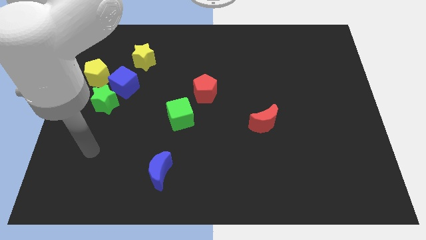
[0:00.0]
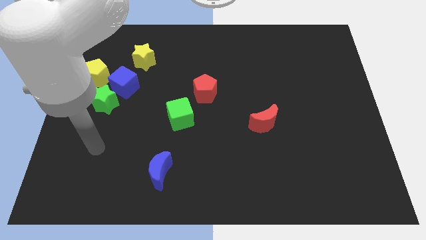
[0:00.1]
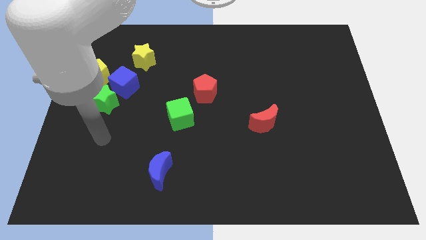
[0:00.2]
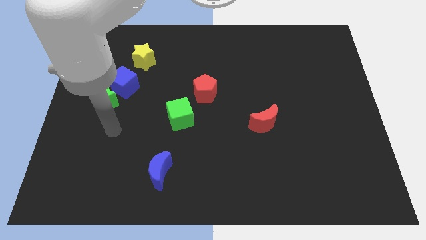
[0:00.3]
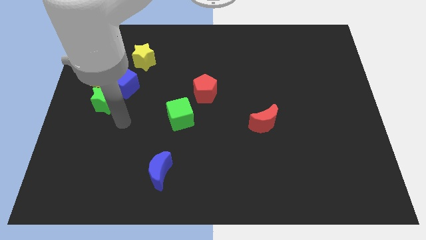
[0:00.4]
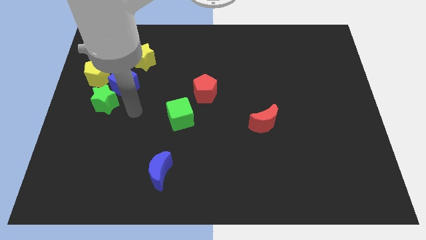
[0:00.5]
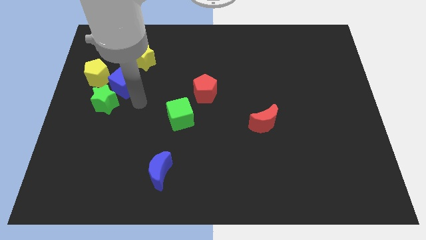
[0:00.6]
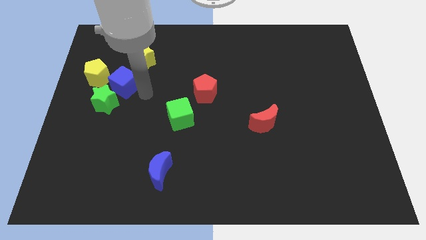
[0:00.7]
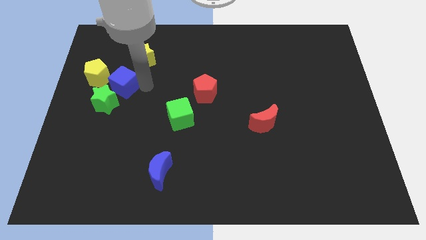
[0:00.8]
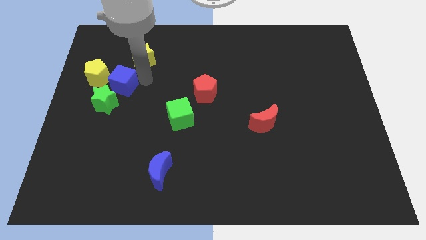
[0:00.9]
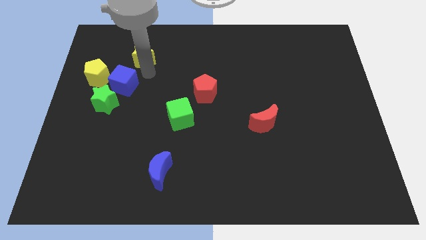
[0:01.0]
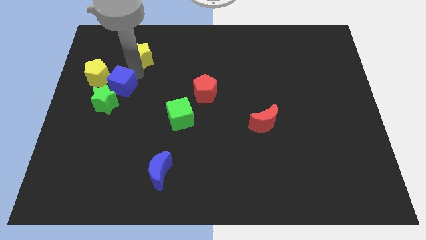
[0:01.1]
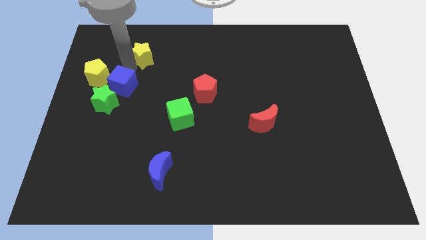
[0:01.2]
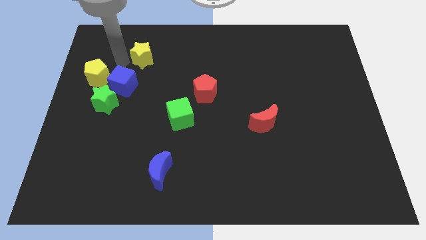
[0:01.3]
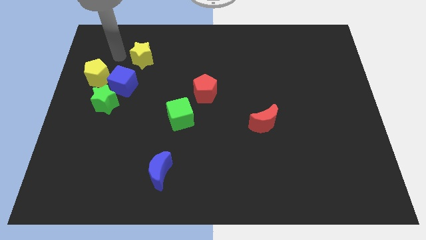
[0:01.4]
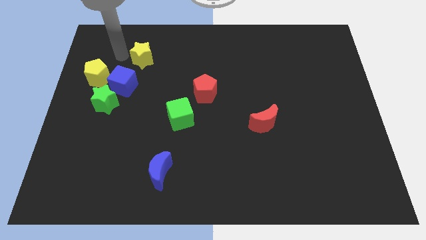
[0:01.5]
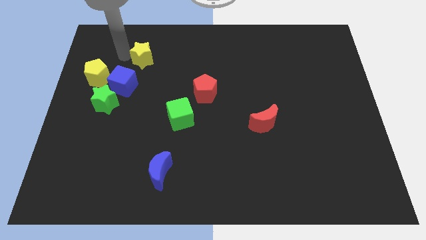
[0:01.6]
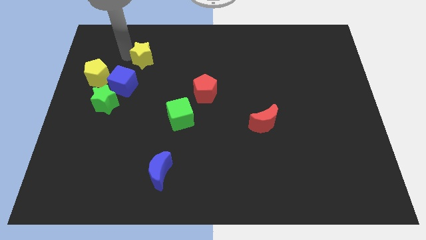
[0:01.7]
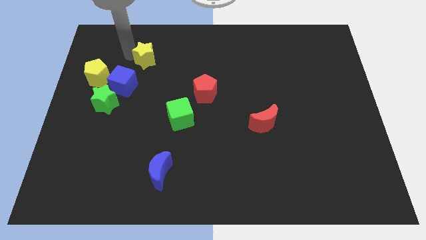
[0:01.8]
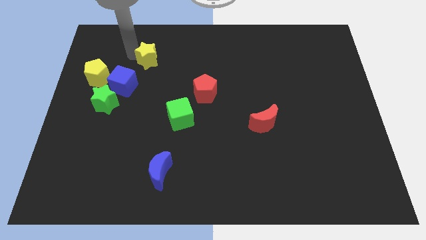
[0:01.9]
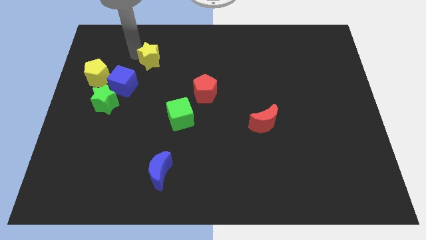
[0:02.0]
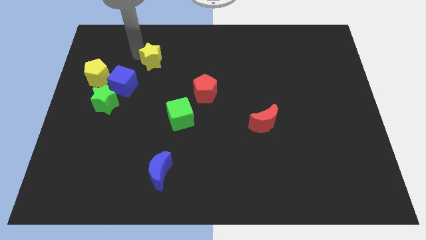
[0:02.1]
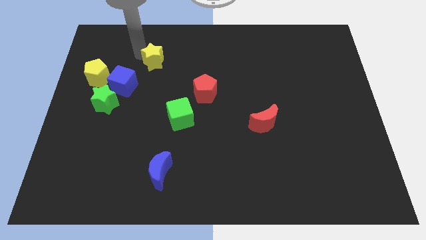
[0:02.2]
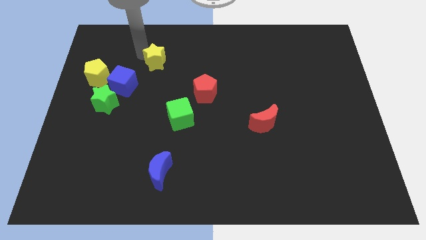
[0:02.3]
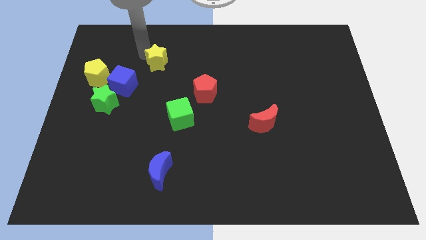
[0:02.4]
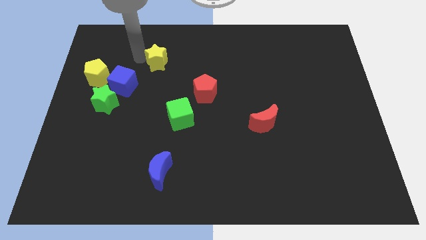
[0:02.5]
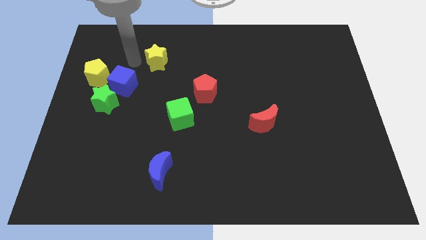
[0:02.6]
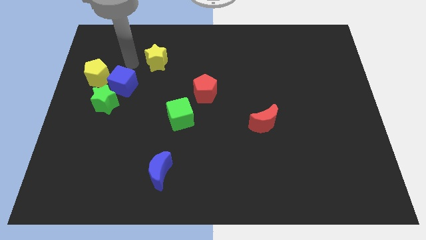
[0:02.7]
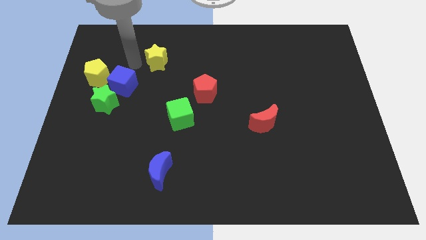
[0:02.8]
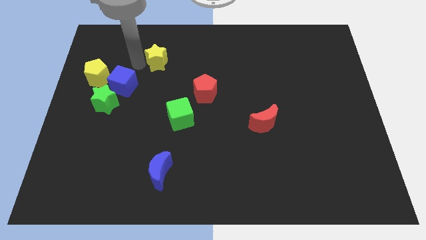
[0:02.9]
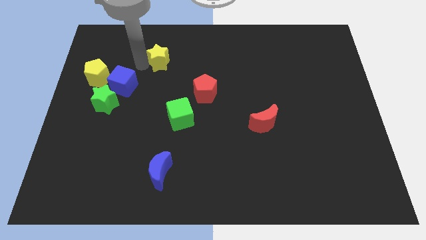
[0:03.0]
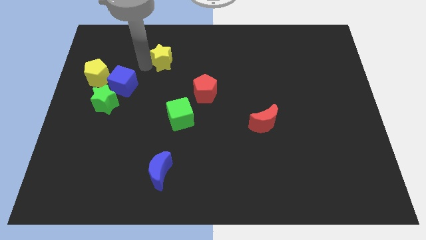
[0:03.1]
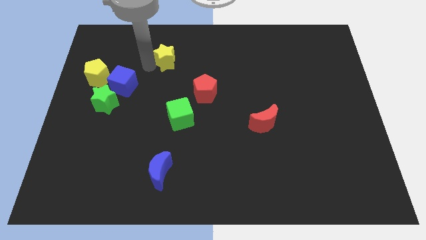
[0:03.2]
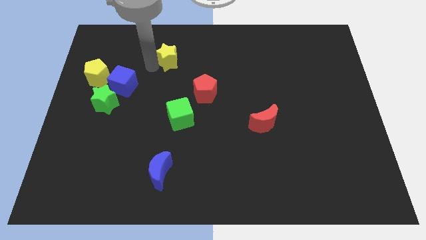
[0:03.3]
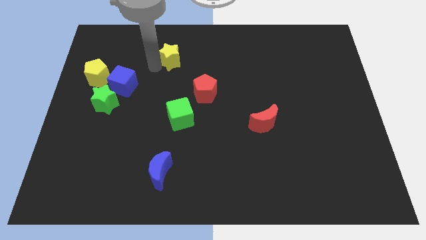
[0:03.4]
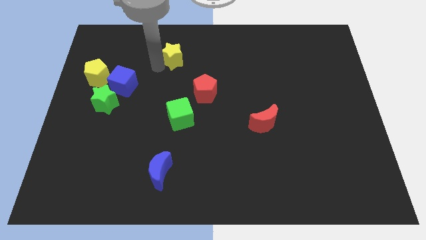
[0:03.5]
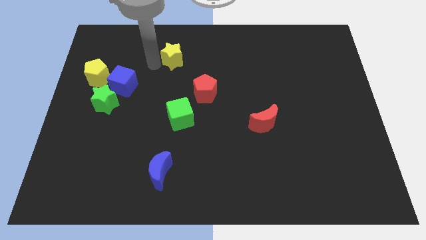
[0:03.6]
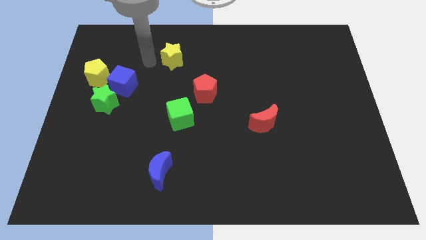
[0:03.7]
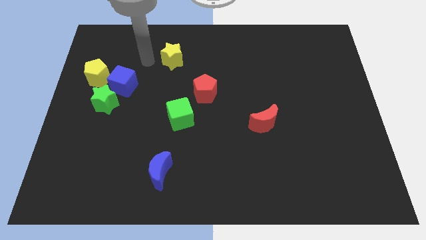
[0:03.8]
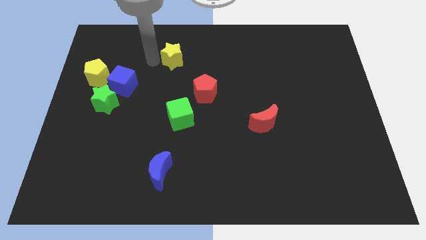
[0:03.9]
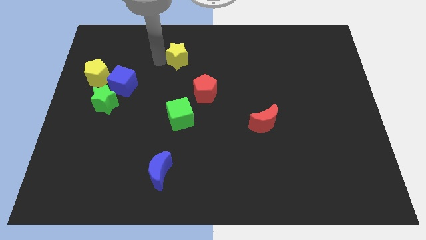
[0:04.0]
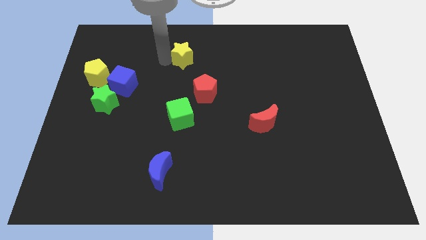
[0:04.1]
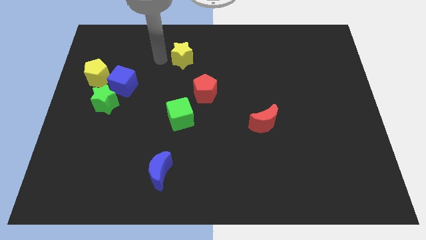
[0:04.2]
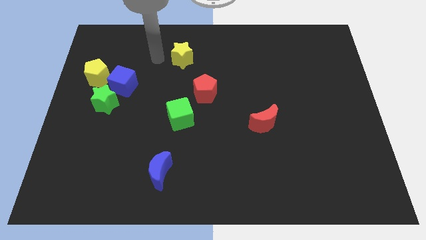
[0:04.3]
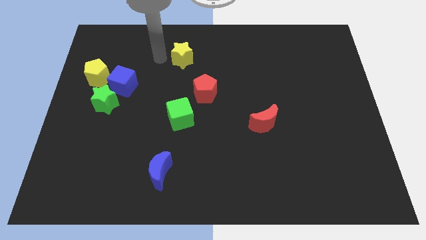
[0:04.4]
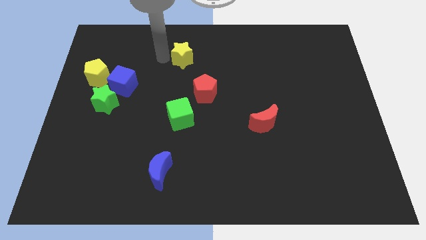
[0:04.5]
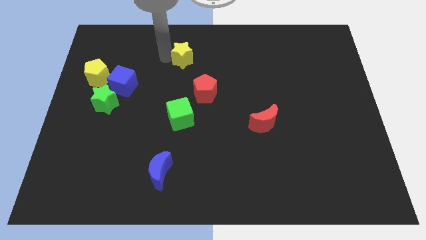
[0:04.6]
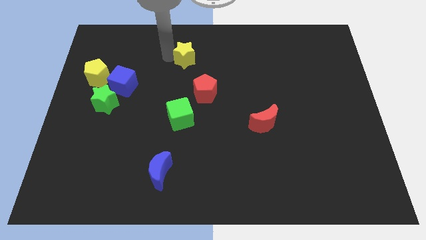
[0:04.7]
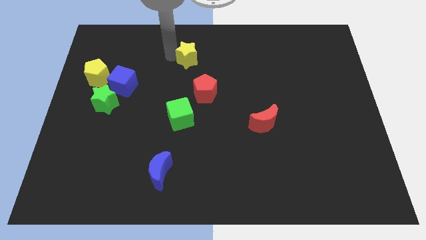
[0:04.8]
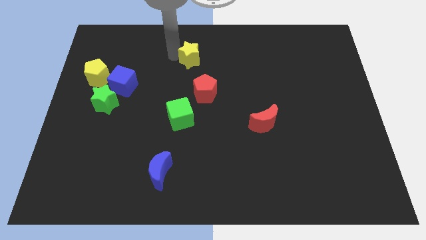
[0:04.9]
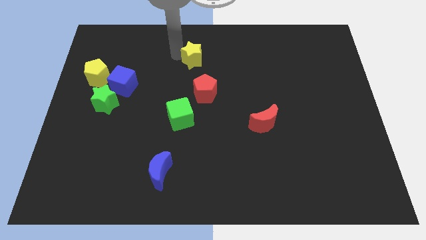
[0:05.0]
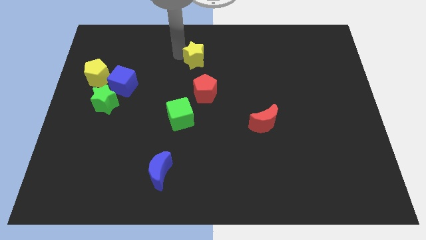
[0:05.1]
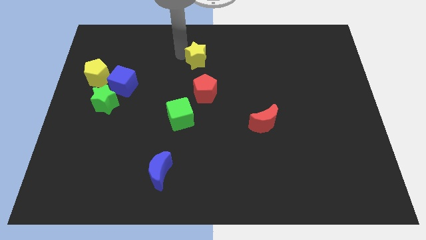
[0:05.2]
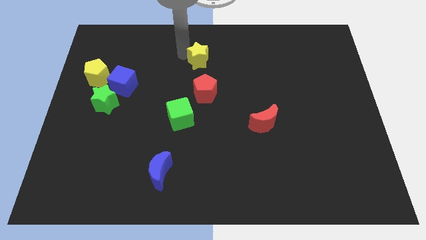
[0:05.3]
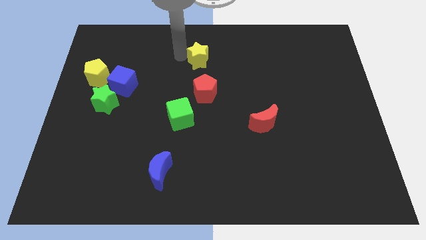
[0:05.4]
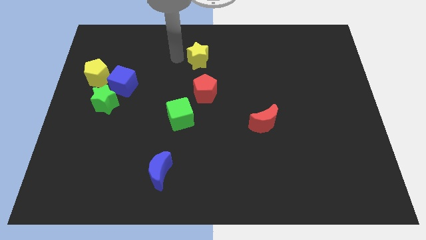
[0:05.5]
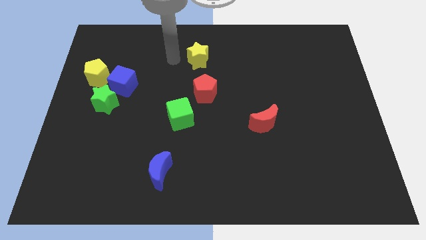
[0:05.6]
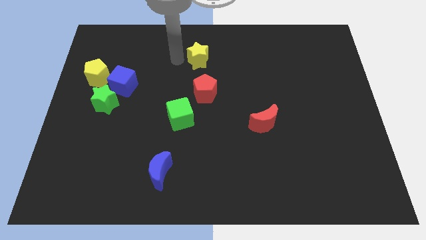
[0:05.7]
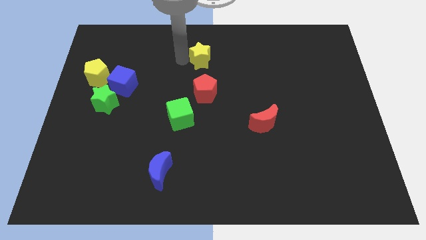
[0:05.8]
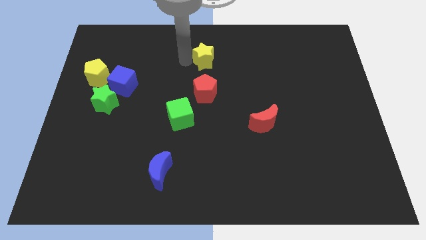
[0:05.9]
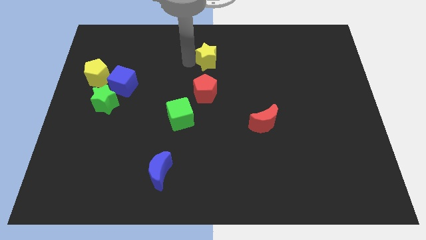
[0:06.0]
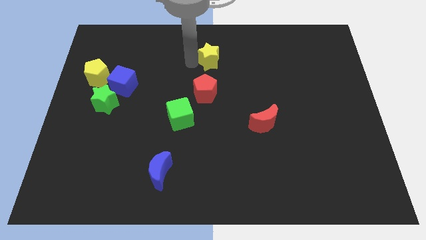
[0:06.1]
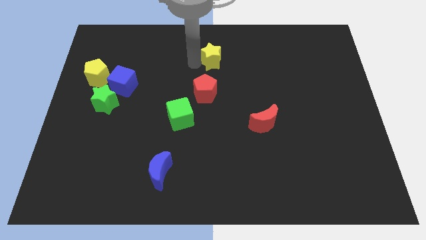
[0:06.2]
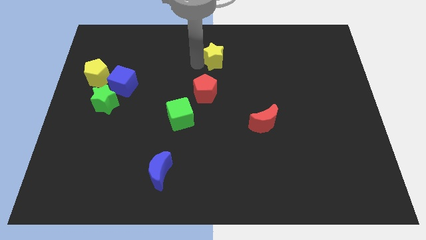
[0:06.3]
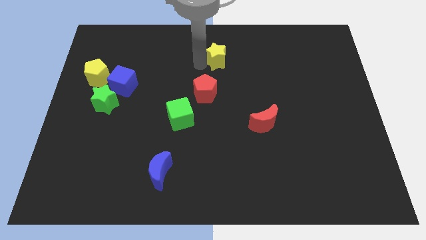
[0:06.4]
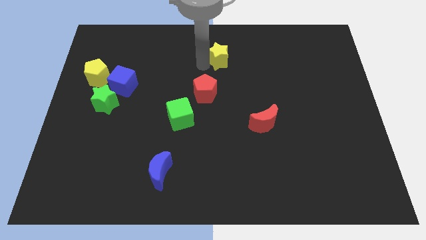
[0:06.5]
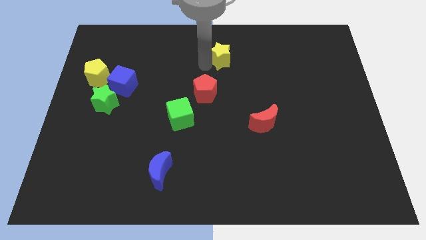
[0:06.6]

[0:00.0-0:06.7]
move the yellow star right

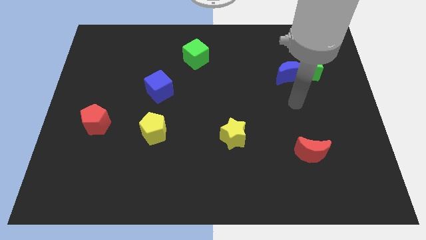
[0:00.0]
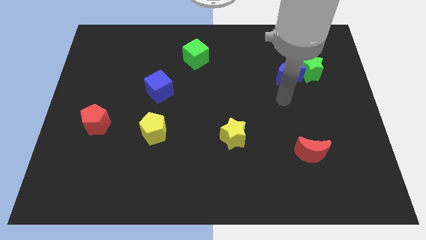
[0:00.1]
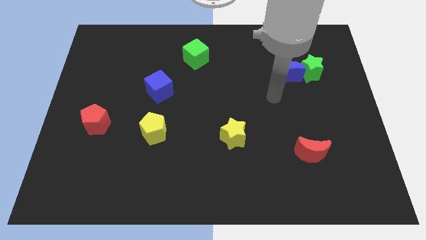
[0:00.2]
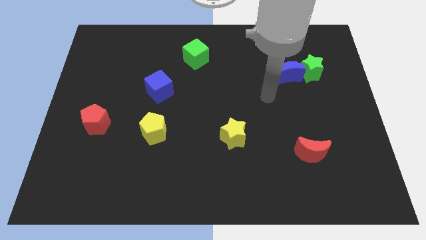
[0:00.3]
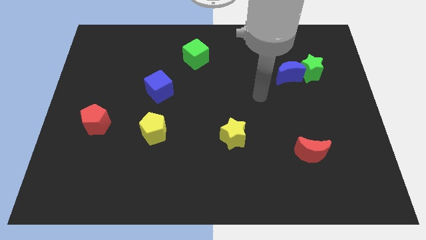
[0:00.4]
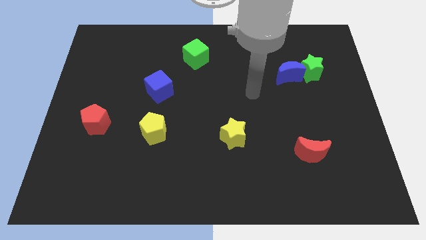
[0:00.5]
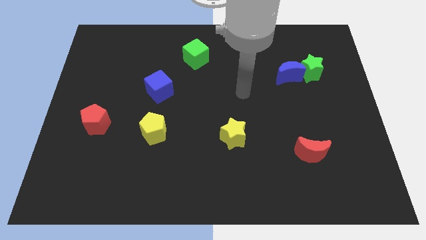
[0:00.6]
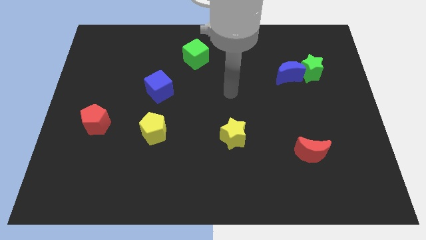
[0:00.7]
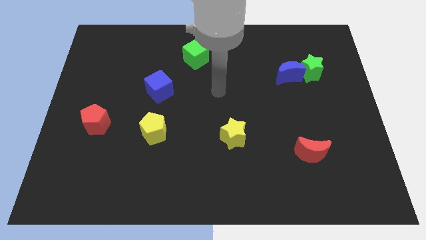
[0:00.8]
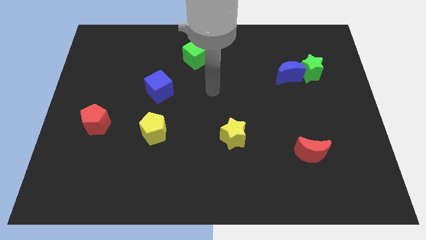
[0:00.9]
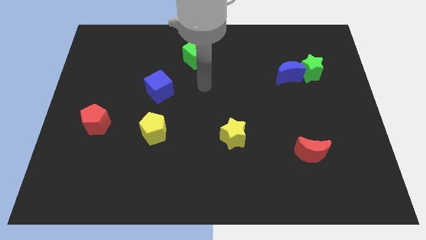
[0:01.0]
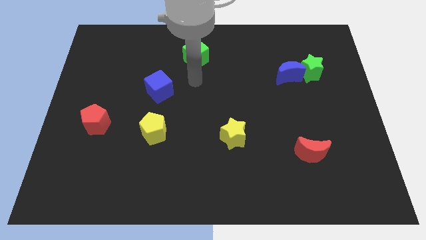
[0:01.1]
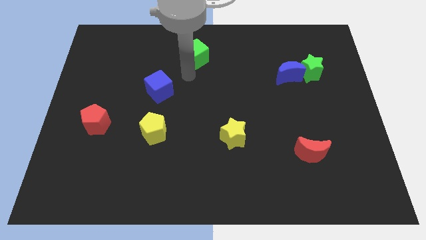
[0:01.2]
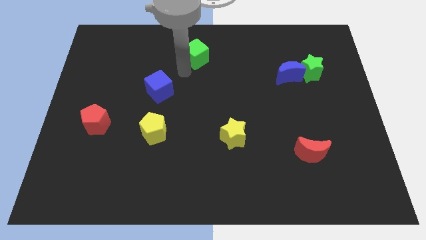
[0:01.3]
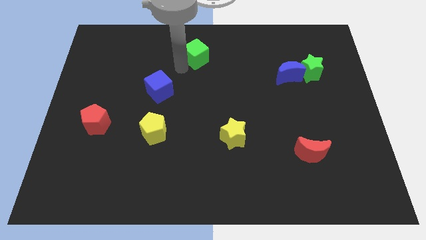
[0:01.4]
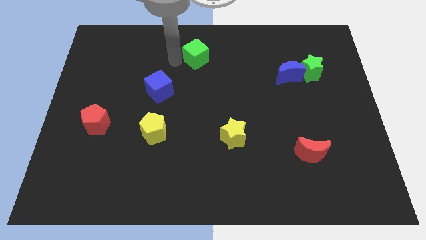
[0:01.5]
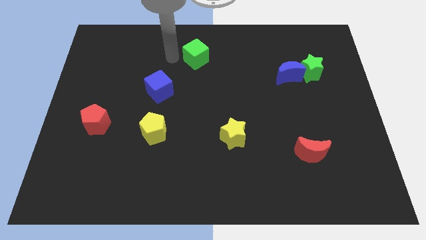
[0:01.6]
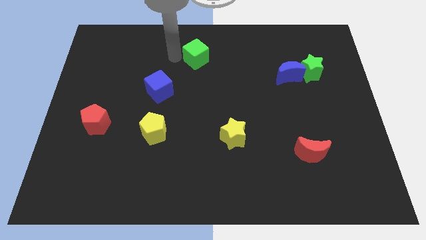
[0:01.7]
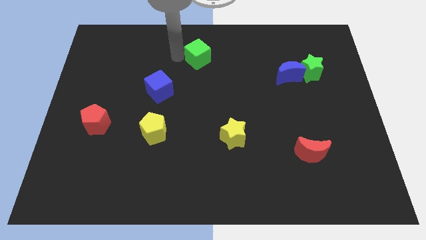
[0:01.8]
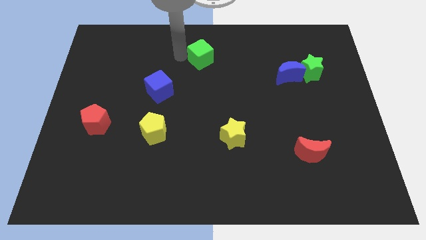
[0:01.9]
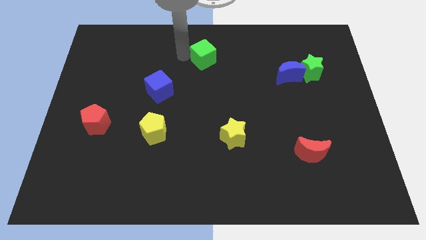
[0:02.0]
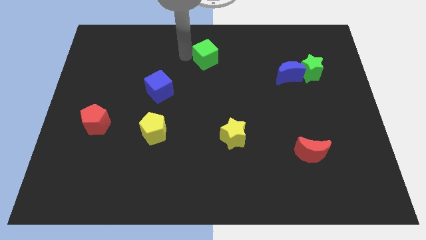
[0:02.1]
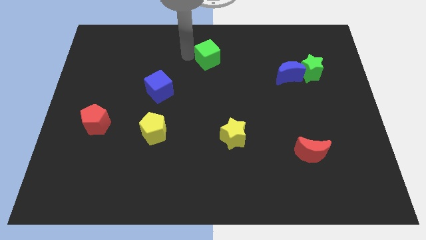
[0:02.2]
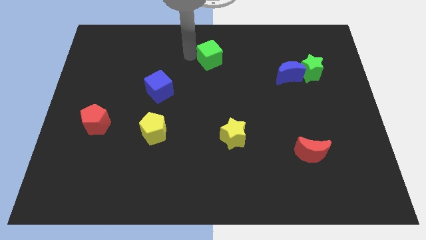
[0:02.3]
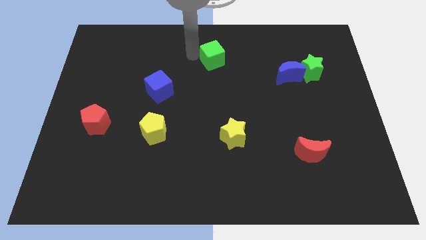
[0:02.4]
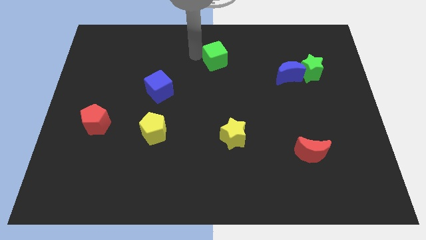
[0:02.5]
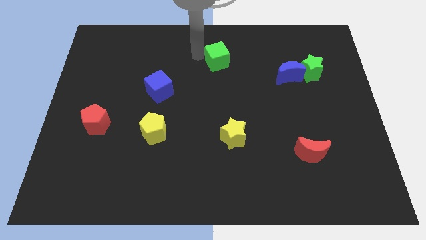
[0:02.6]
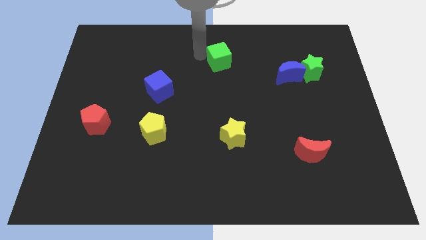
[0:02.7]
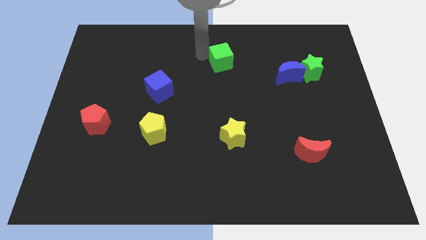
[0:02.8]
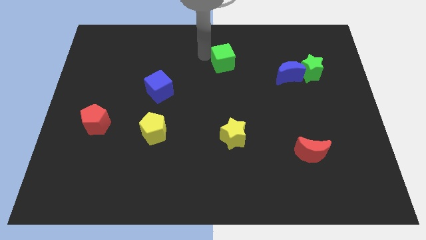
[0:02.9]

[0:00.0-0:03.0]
push the green cube right a little bit
